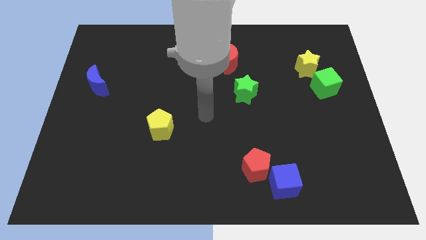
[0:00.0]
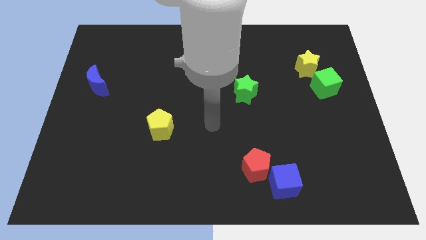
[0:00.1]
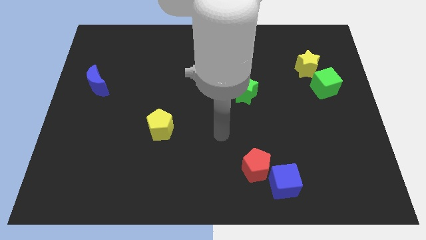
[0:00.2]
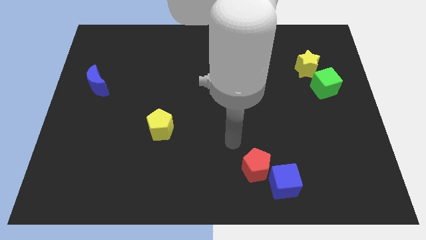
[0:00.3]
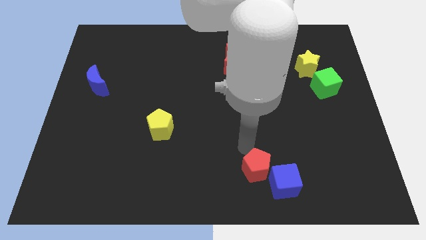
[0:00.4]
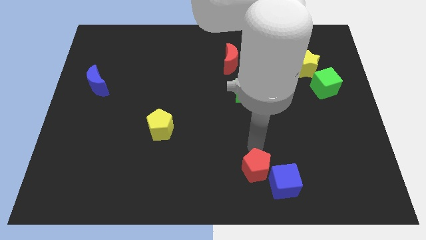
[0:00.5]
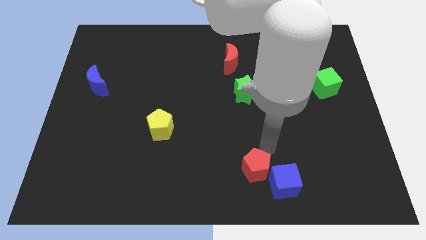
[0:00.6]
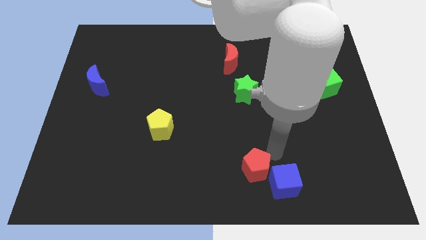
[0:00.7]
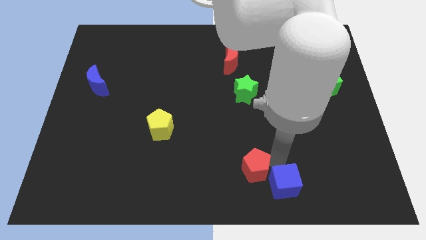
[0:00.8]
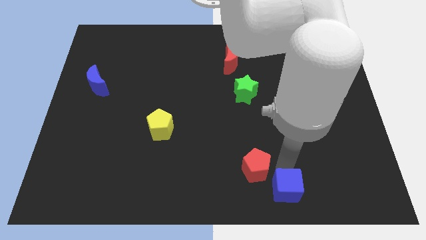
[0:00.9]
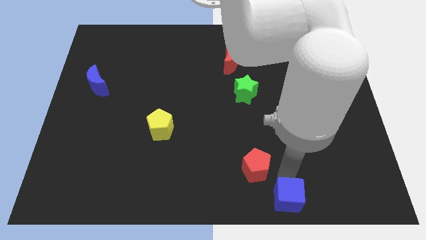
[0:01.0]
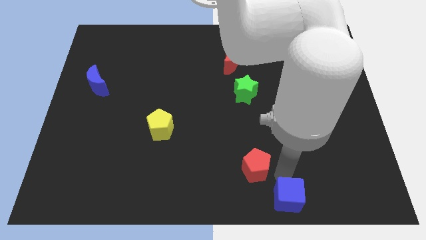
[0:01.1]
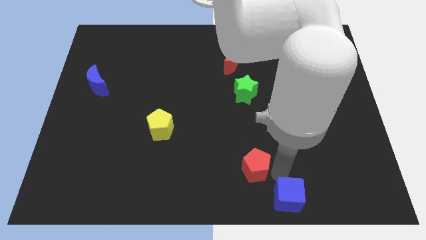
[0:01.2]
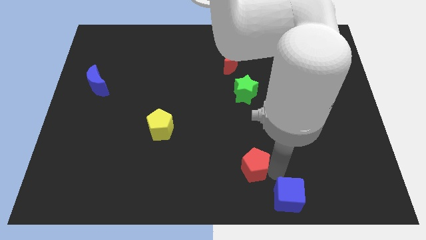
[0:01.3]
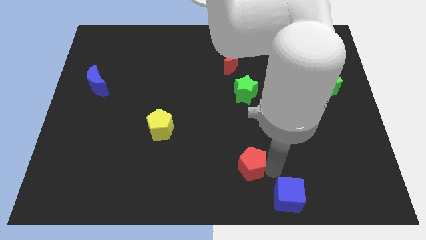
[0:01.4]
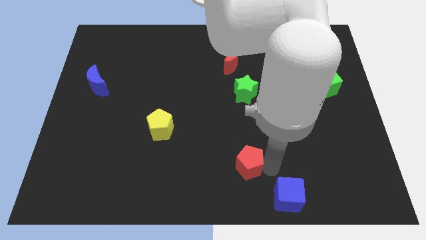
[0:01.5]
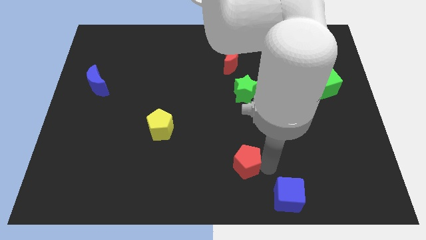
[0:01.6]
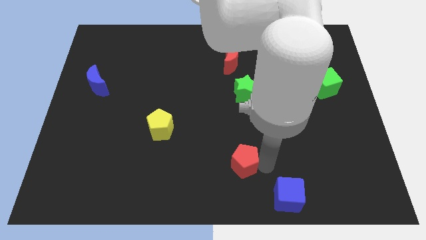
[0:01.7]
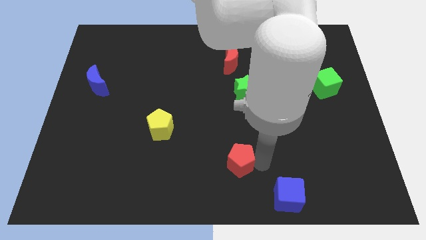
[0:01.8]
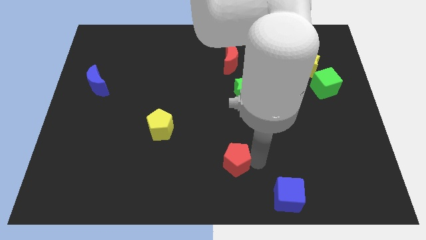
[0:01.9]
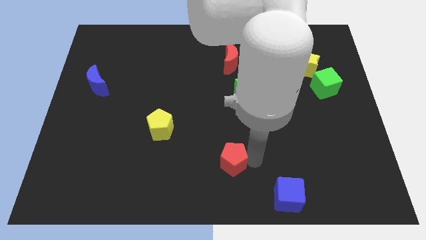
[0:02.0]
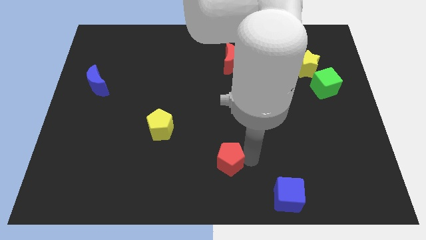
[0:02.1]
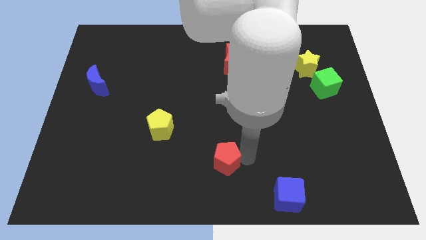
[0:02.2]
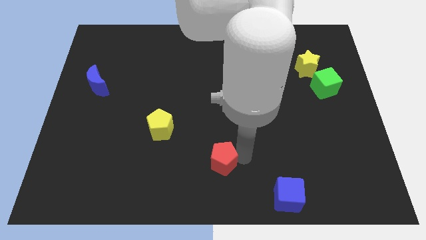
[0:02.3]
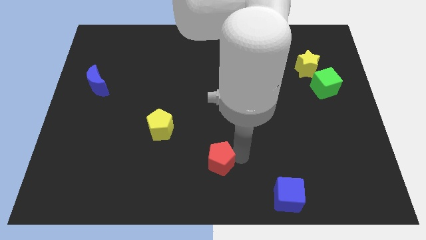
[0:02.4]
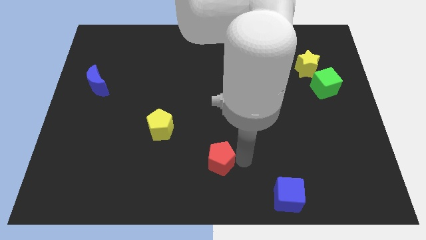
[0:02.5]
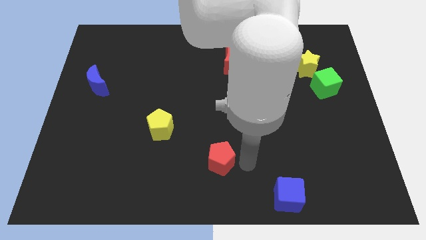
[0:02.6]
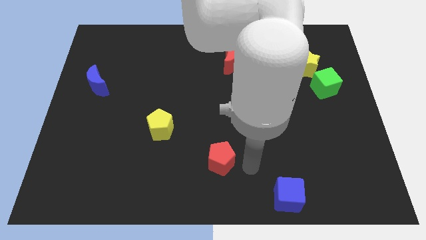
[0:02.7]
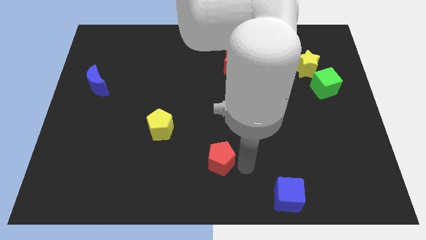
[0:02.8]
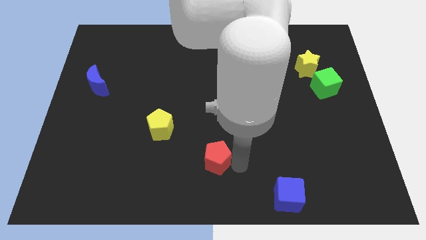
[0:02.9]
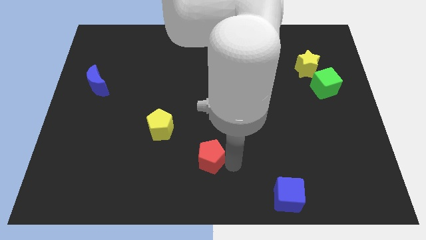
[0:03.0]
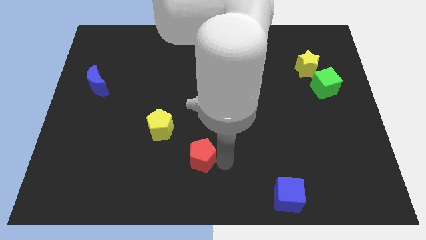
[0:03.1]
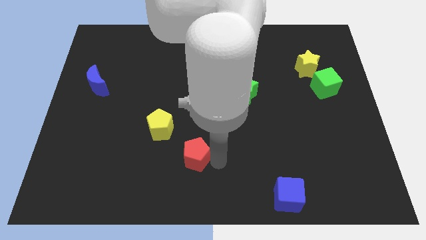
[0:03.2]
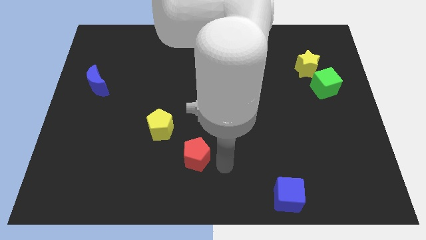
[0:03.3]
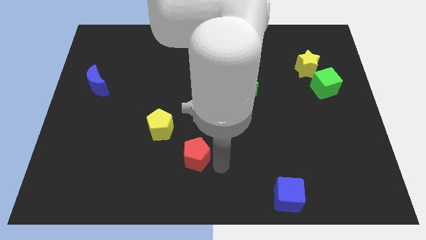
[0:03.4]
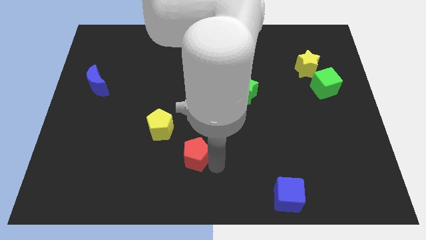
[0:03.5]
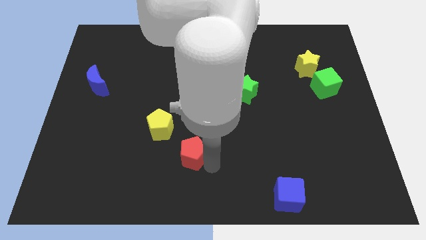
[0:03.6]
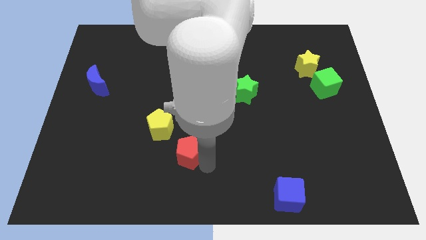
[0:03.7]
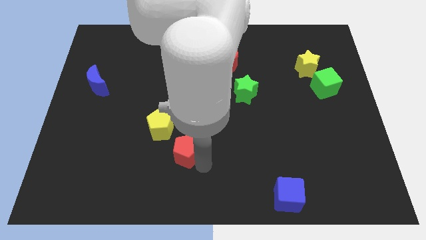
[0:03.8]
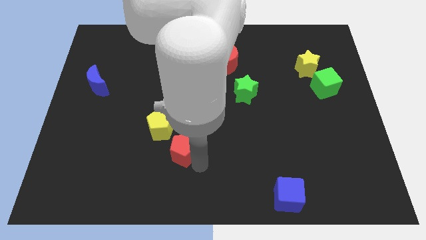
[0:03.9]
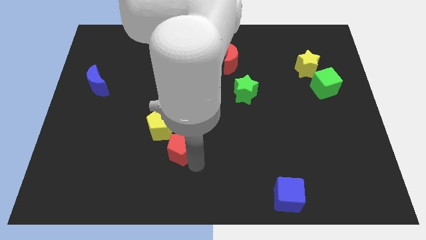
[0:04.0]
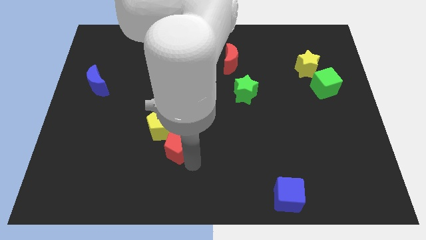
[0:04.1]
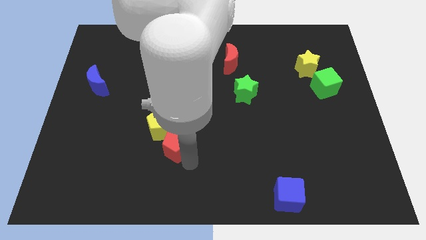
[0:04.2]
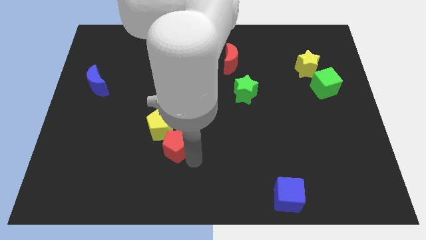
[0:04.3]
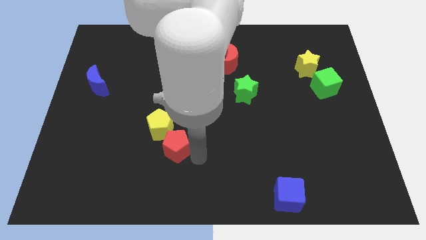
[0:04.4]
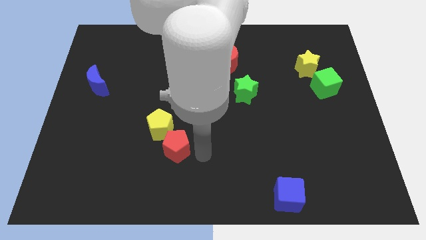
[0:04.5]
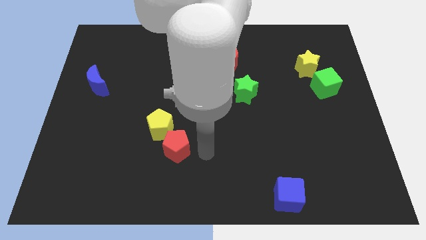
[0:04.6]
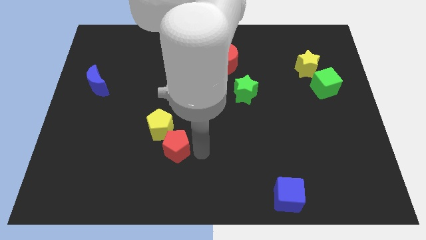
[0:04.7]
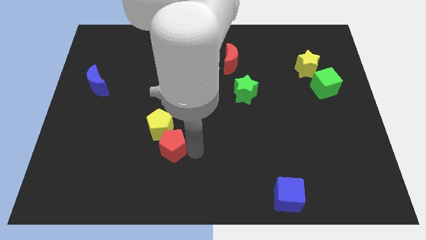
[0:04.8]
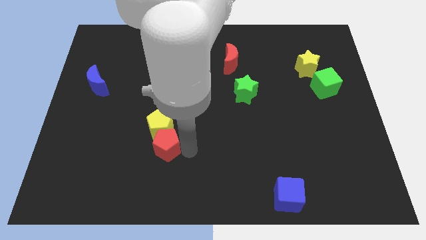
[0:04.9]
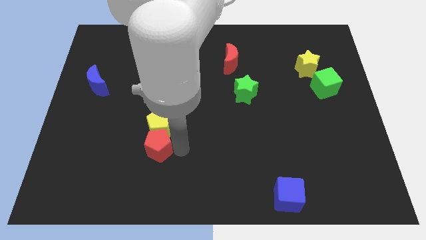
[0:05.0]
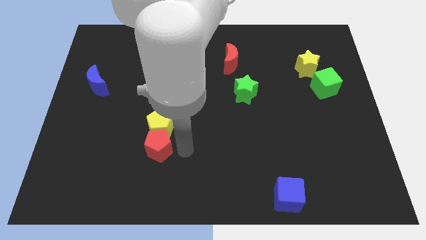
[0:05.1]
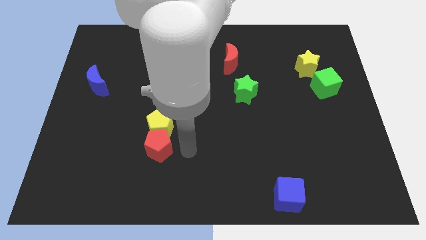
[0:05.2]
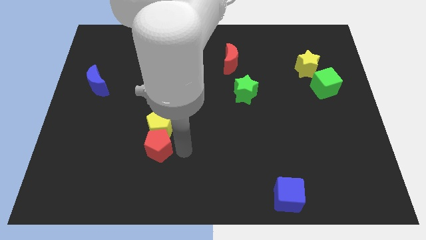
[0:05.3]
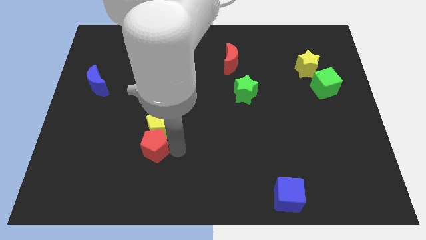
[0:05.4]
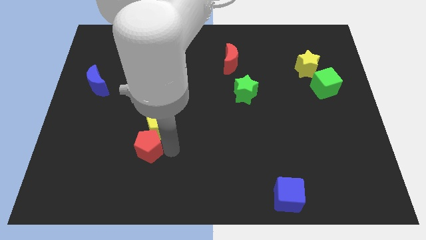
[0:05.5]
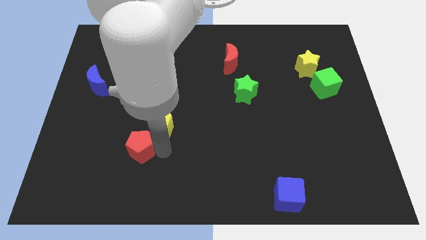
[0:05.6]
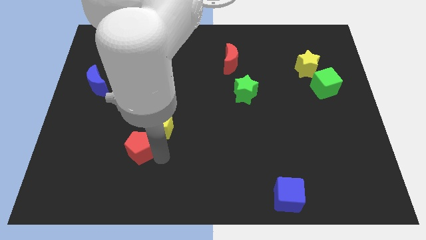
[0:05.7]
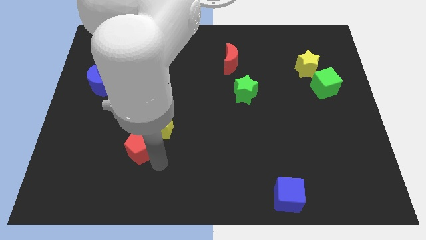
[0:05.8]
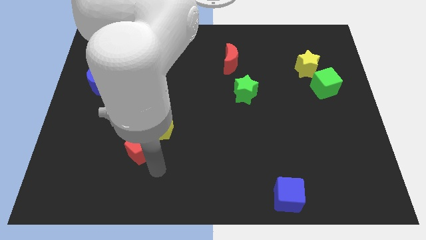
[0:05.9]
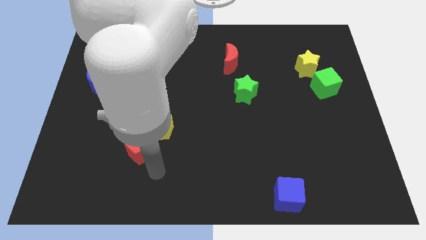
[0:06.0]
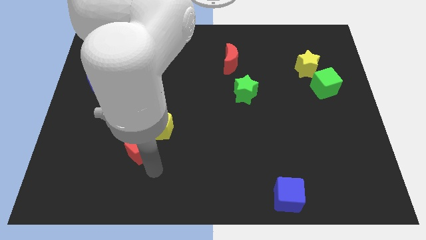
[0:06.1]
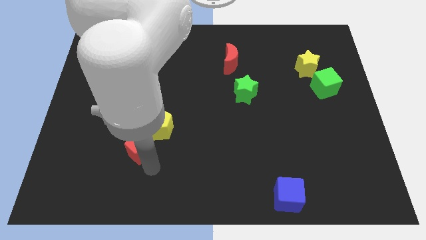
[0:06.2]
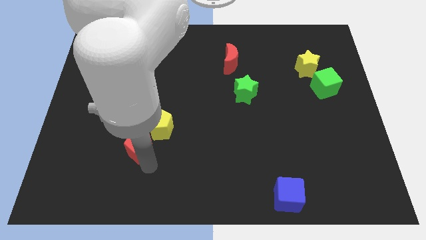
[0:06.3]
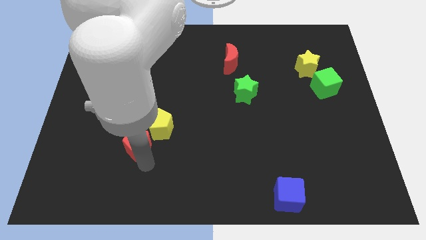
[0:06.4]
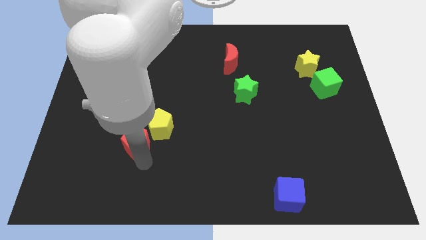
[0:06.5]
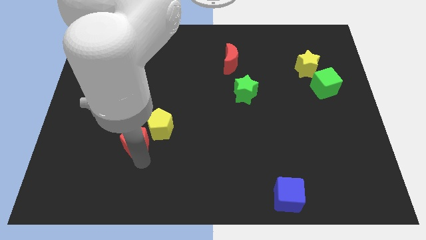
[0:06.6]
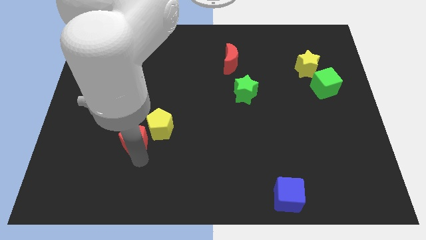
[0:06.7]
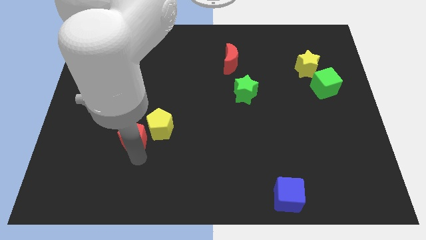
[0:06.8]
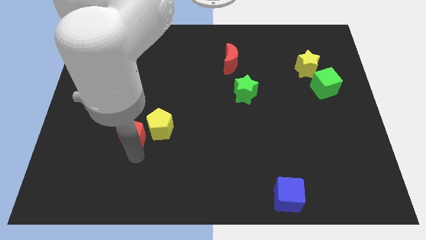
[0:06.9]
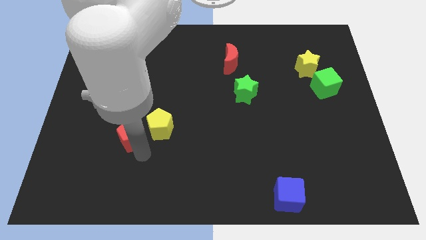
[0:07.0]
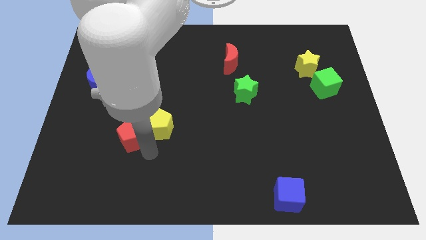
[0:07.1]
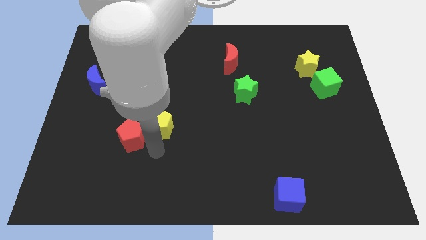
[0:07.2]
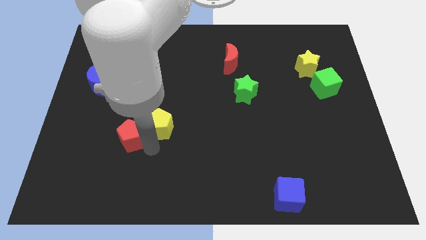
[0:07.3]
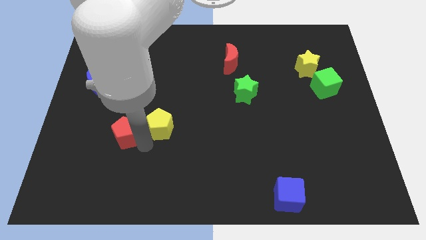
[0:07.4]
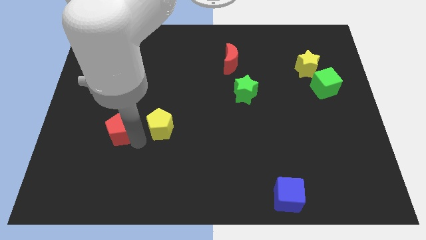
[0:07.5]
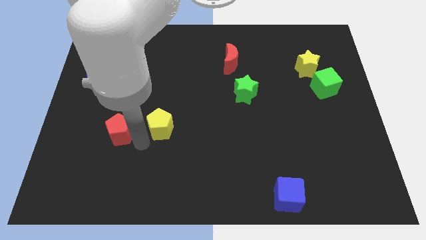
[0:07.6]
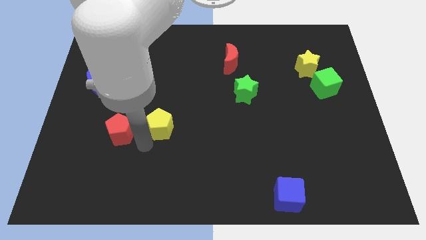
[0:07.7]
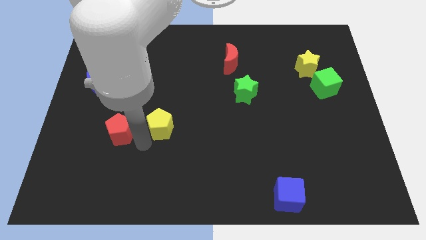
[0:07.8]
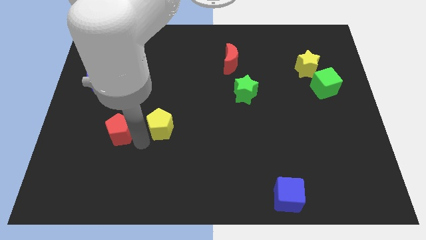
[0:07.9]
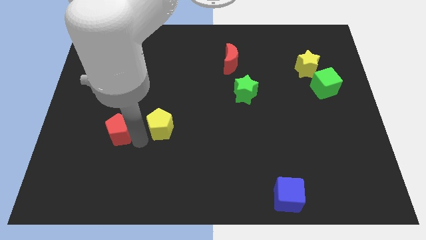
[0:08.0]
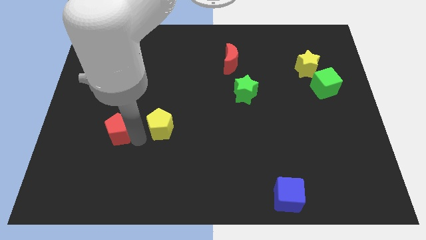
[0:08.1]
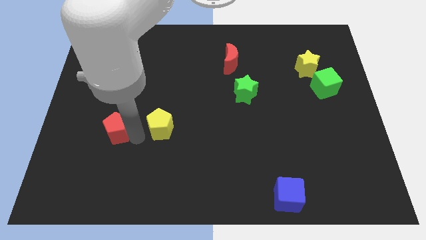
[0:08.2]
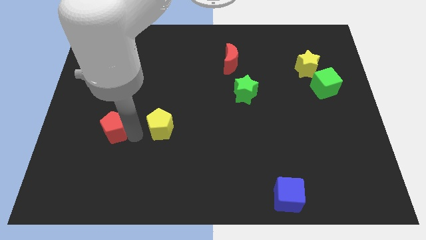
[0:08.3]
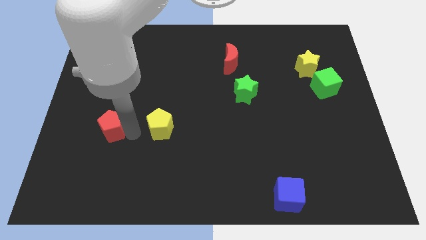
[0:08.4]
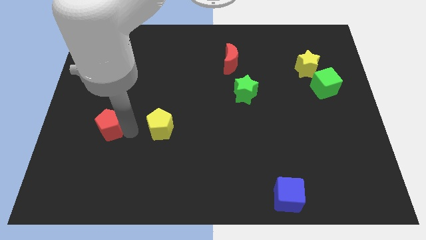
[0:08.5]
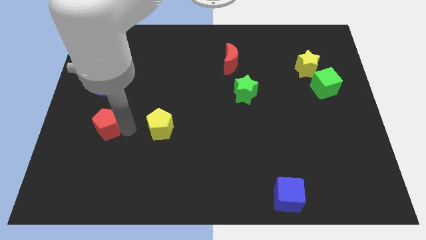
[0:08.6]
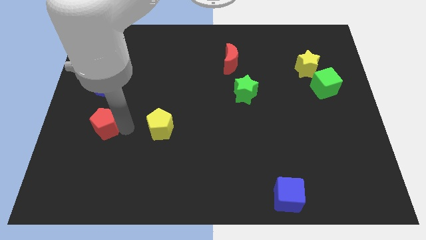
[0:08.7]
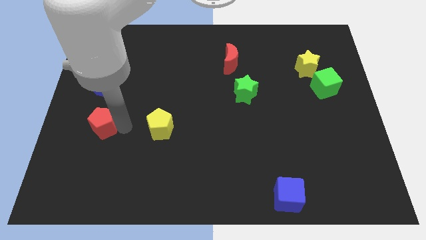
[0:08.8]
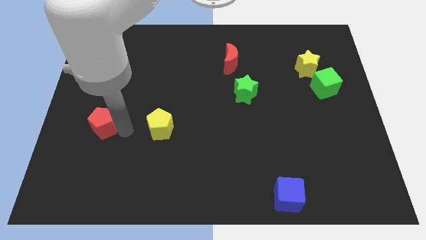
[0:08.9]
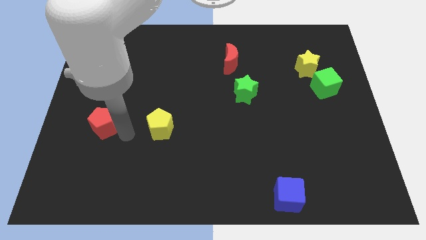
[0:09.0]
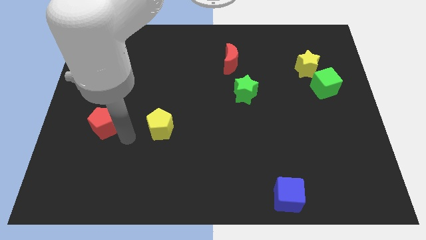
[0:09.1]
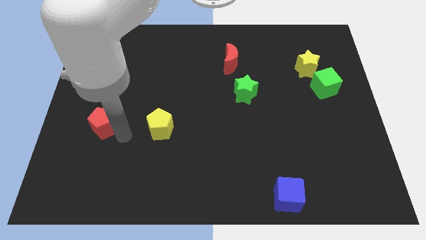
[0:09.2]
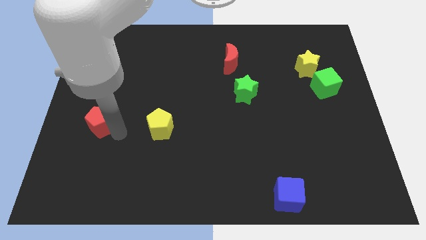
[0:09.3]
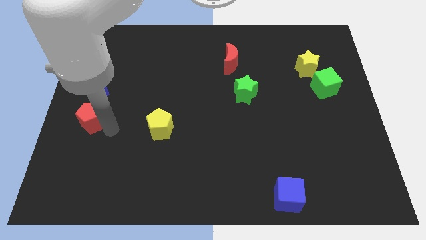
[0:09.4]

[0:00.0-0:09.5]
push the red pentagon to the left side of the board
